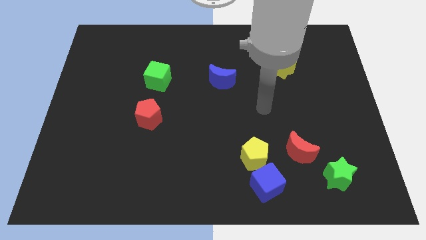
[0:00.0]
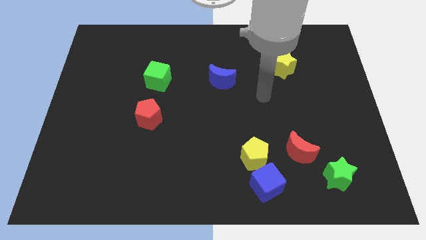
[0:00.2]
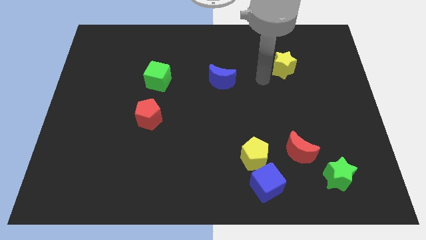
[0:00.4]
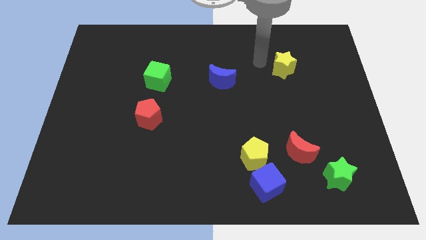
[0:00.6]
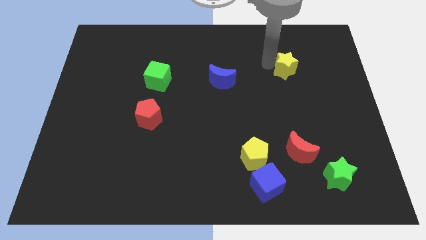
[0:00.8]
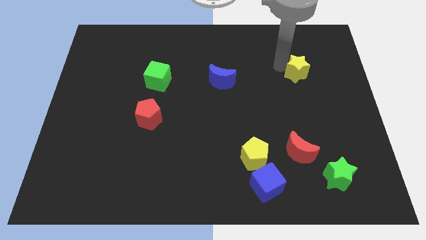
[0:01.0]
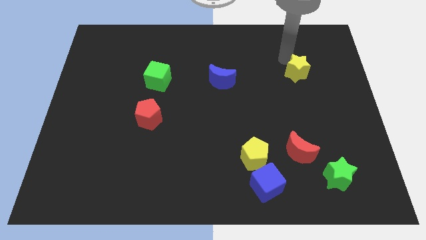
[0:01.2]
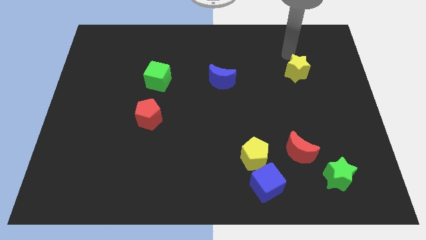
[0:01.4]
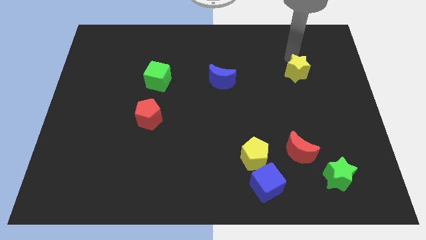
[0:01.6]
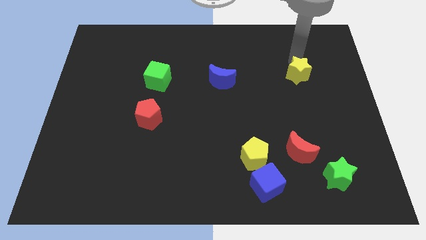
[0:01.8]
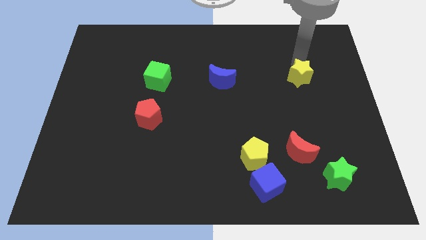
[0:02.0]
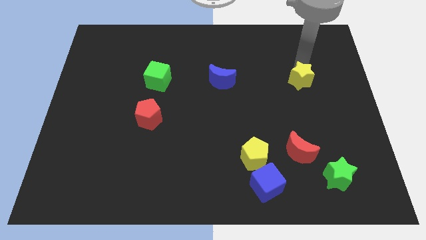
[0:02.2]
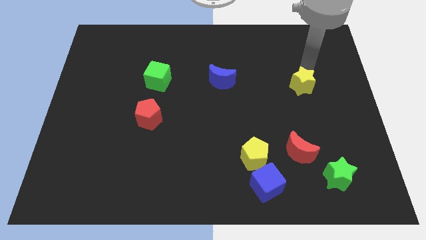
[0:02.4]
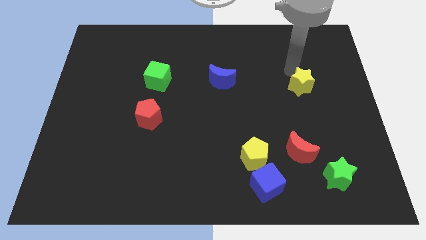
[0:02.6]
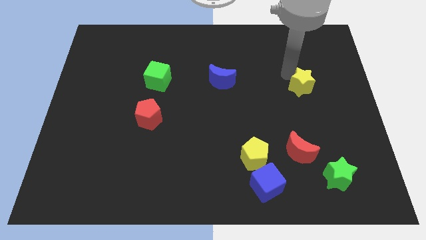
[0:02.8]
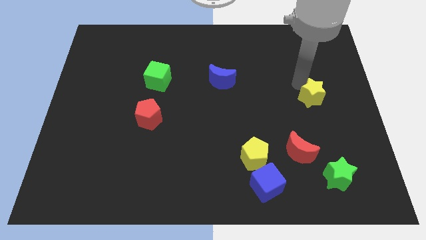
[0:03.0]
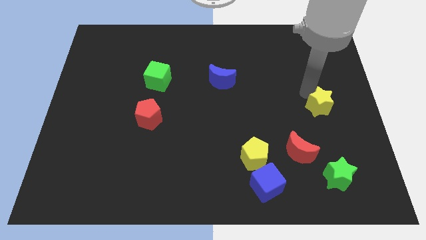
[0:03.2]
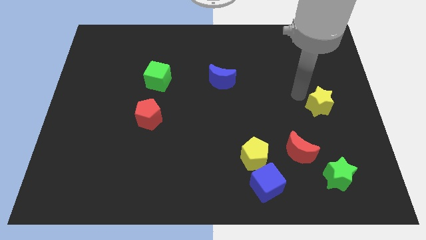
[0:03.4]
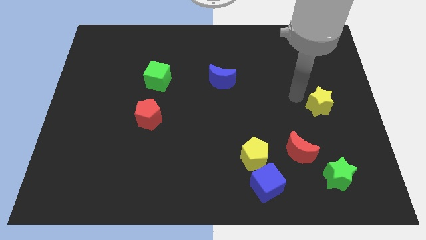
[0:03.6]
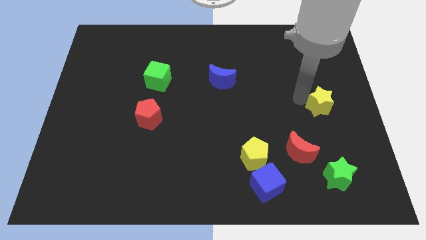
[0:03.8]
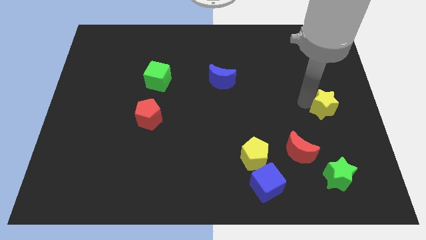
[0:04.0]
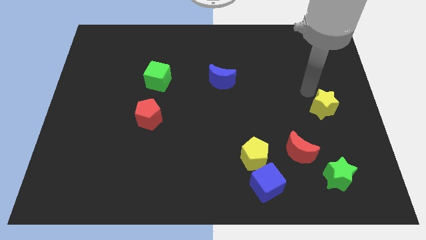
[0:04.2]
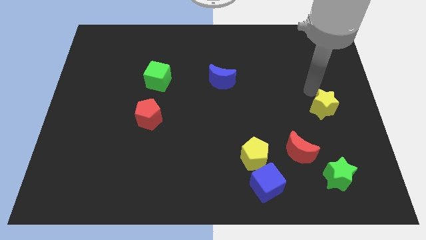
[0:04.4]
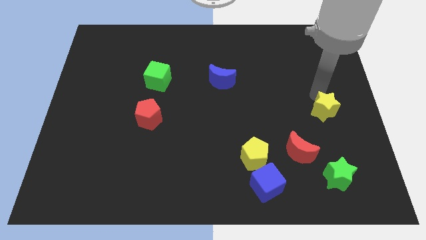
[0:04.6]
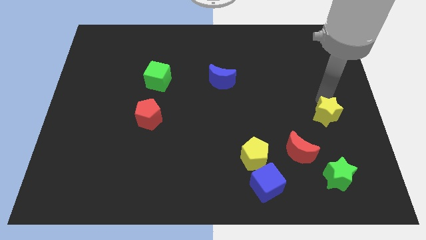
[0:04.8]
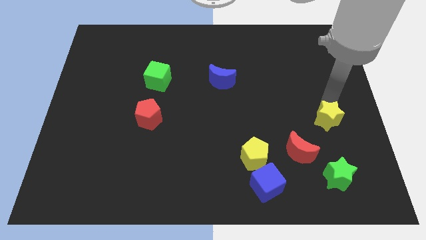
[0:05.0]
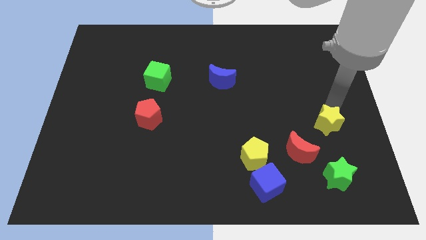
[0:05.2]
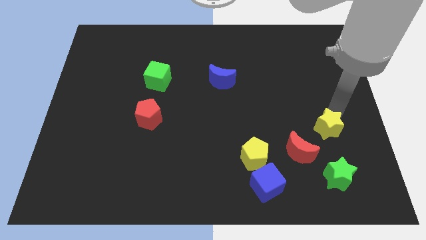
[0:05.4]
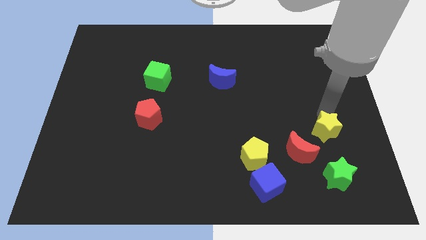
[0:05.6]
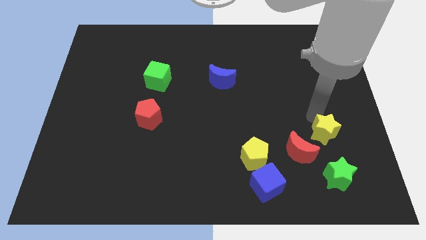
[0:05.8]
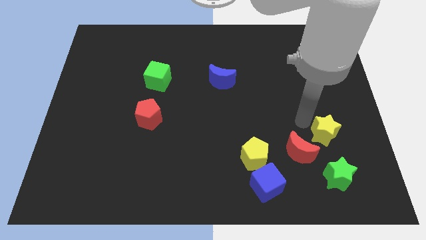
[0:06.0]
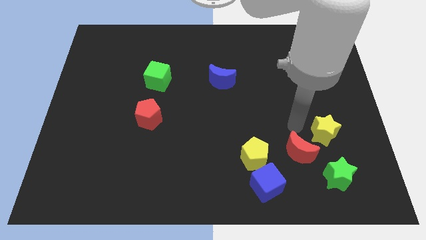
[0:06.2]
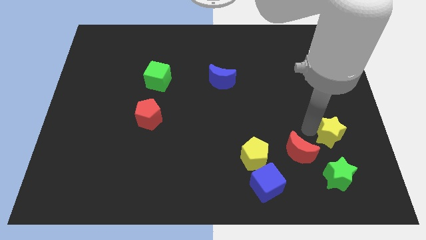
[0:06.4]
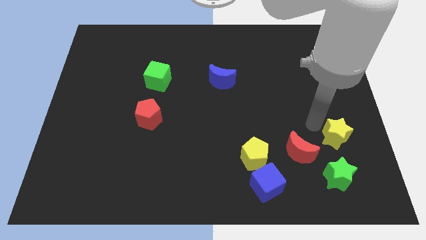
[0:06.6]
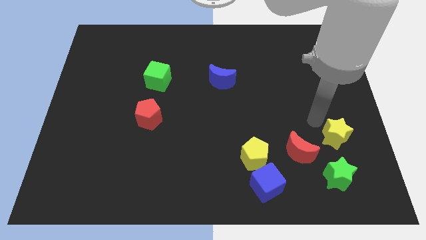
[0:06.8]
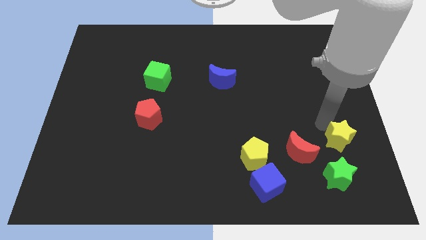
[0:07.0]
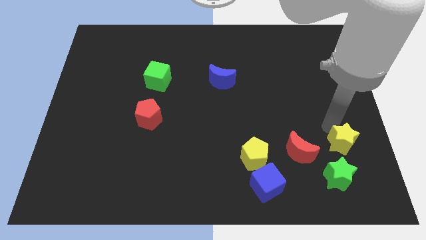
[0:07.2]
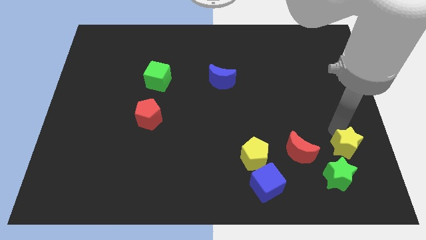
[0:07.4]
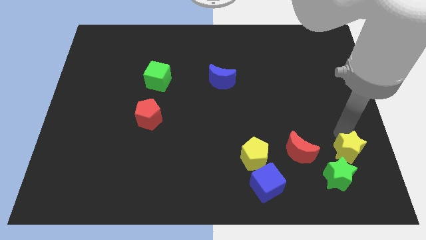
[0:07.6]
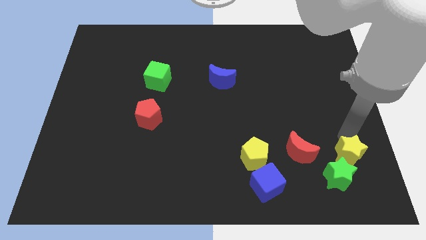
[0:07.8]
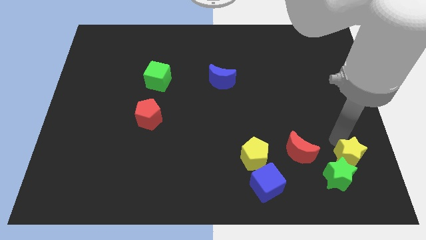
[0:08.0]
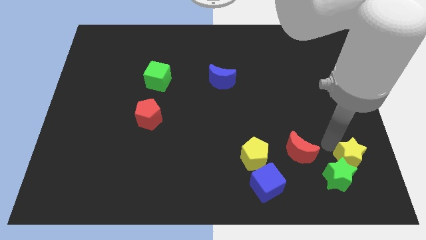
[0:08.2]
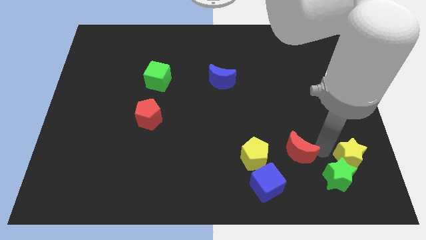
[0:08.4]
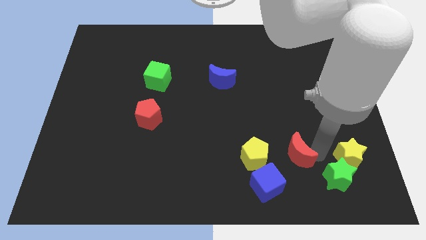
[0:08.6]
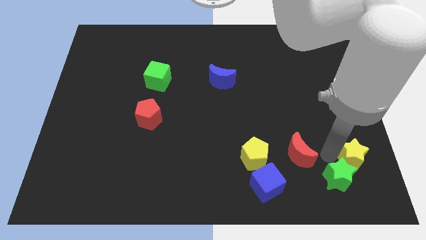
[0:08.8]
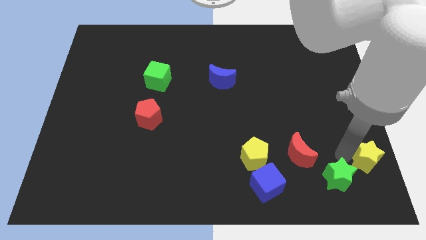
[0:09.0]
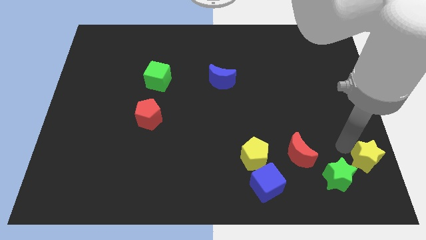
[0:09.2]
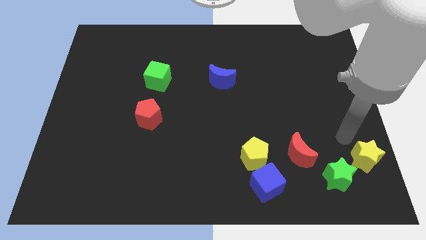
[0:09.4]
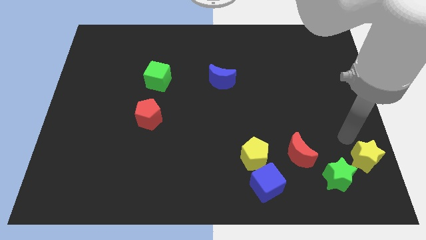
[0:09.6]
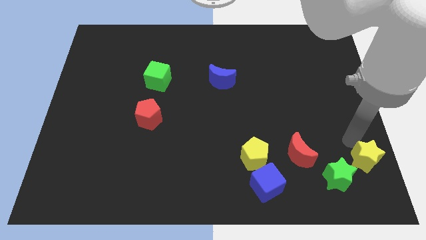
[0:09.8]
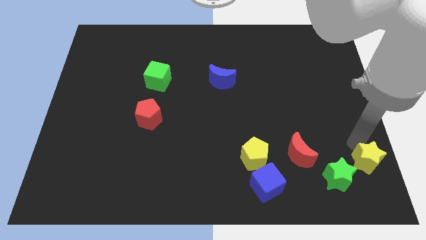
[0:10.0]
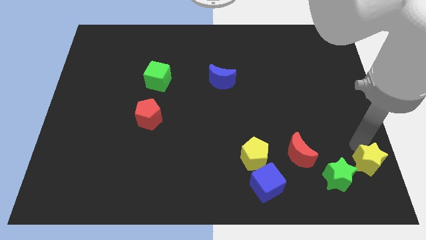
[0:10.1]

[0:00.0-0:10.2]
put the yellow star to the bottom right of the board

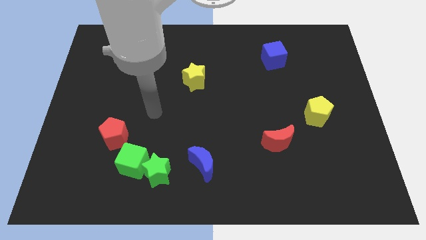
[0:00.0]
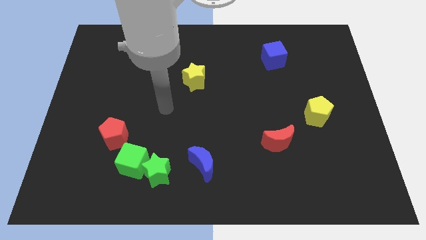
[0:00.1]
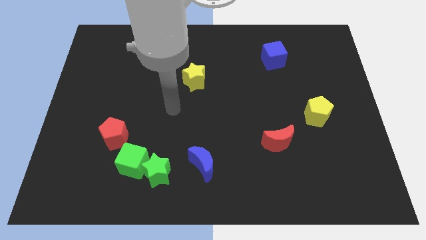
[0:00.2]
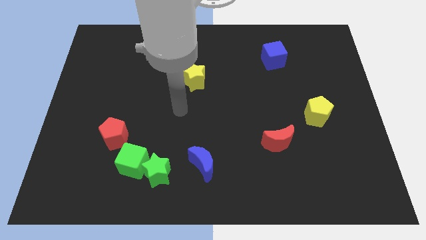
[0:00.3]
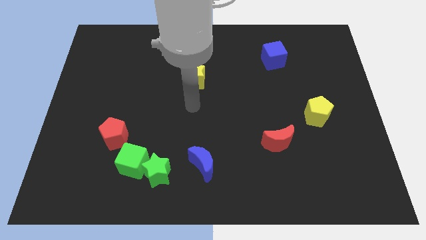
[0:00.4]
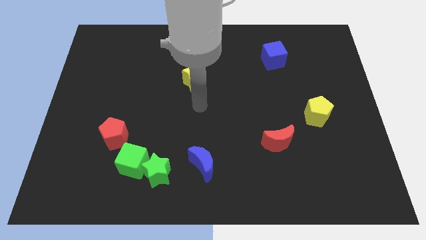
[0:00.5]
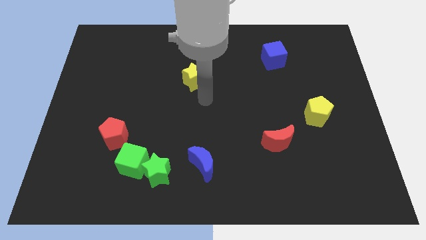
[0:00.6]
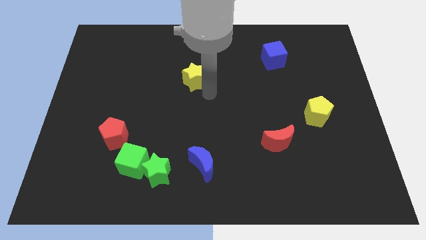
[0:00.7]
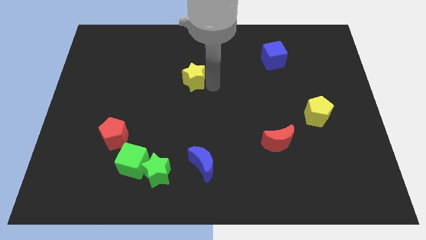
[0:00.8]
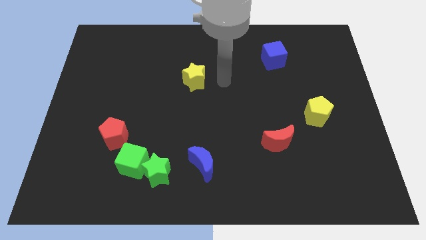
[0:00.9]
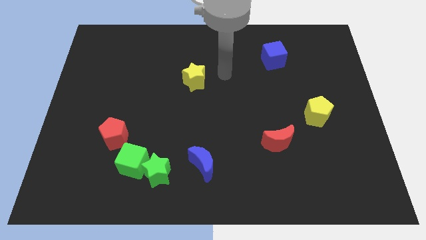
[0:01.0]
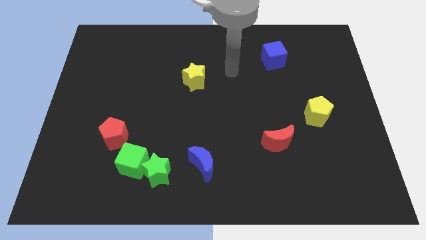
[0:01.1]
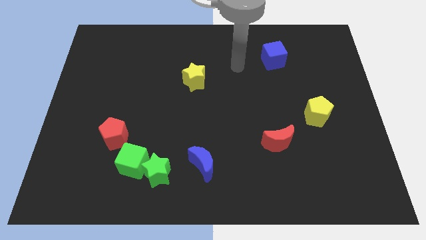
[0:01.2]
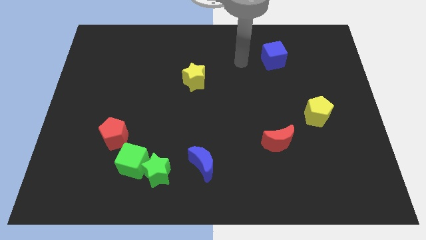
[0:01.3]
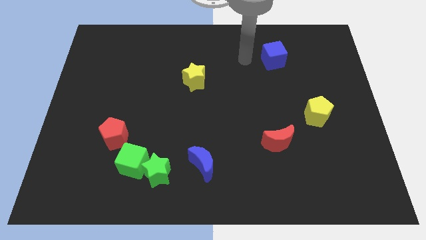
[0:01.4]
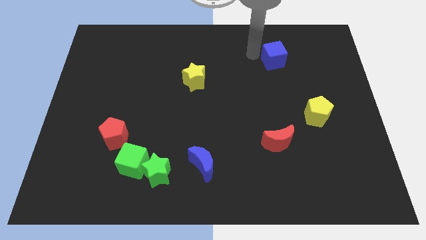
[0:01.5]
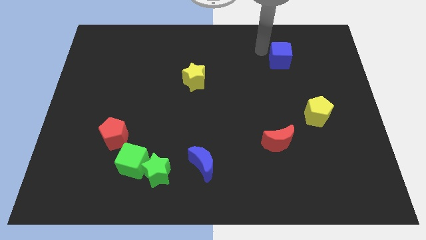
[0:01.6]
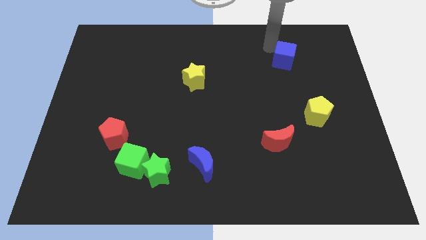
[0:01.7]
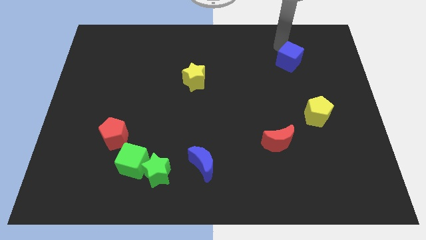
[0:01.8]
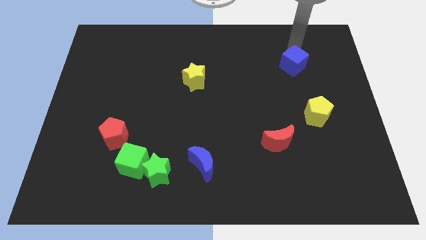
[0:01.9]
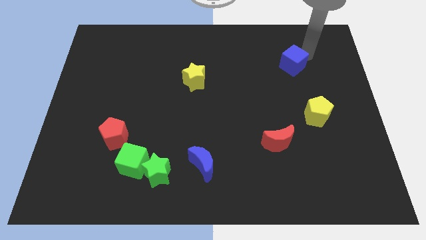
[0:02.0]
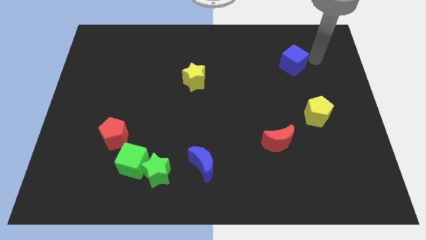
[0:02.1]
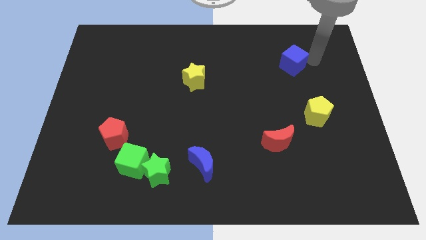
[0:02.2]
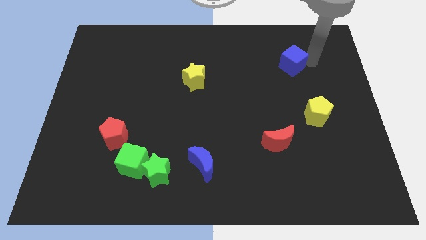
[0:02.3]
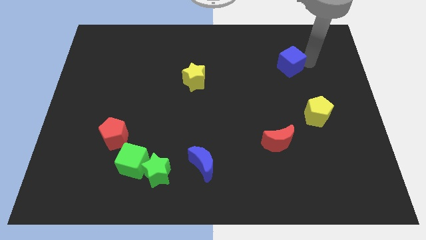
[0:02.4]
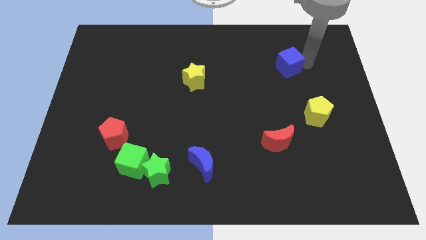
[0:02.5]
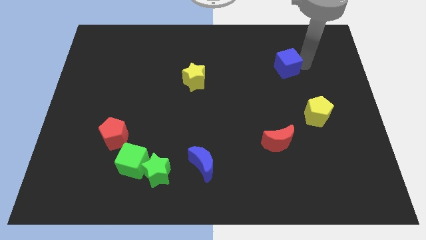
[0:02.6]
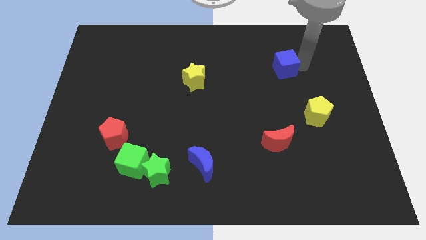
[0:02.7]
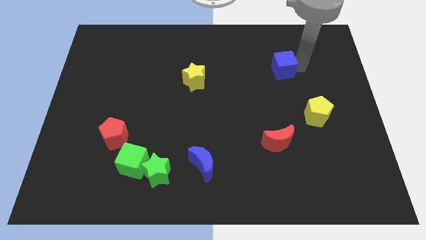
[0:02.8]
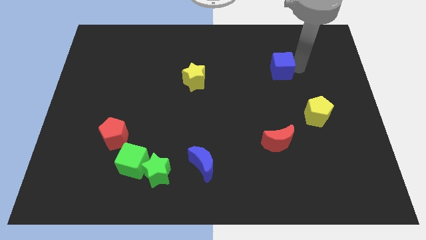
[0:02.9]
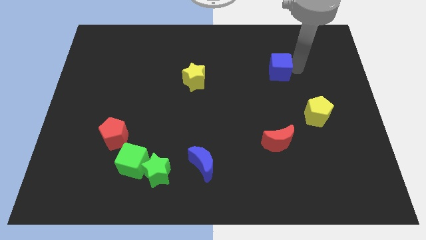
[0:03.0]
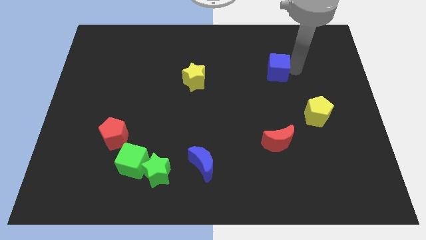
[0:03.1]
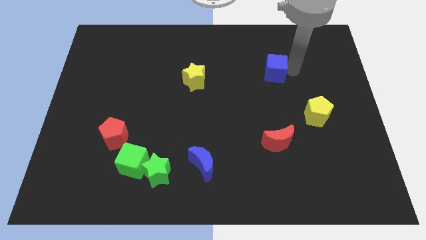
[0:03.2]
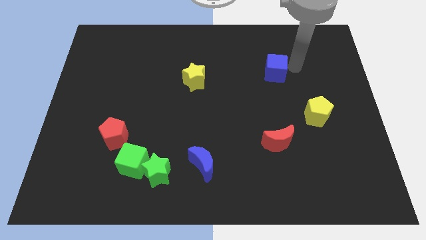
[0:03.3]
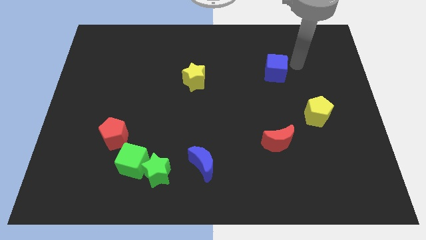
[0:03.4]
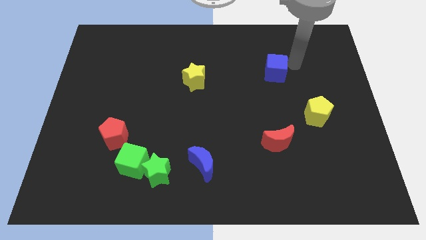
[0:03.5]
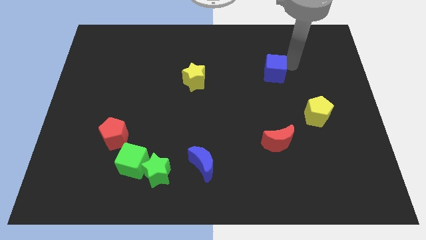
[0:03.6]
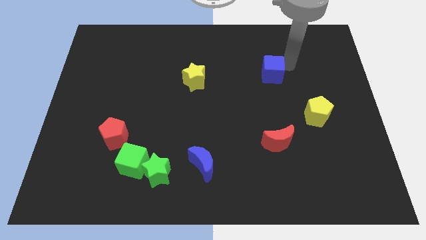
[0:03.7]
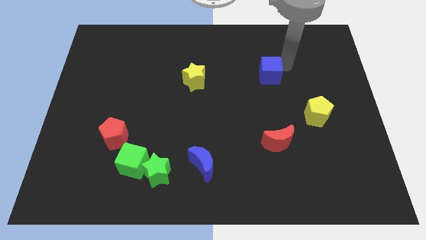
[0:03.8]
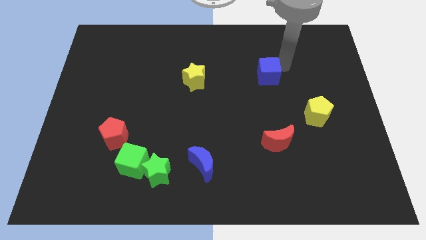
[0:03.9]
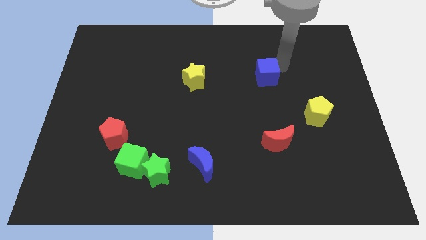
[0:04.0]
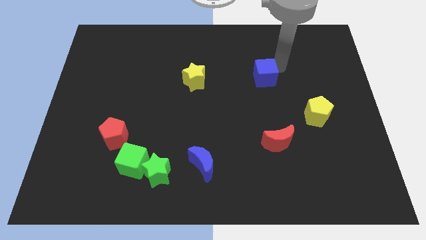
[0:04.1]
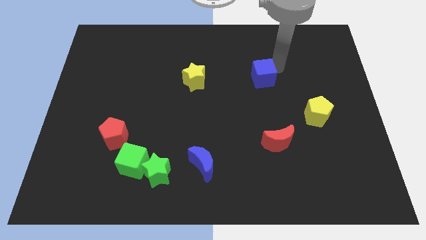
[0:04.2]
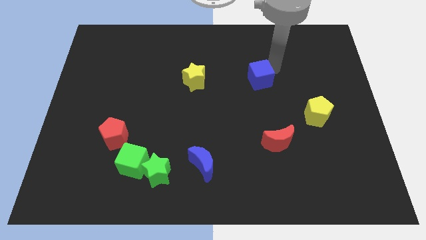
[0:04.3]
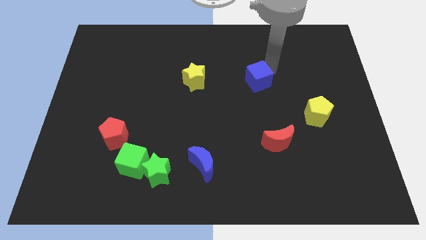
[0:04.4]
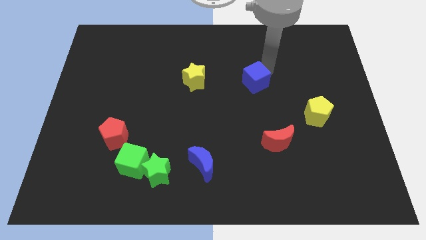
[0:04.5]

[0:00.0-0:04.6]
slide the blue cube to the center of the board
